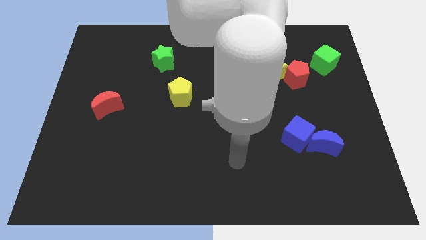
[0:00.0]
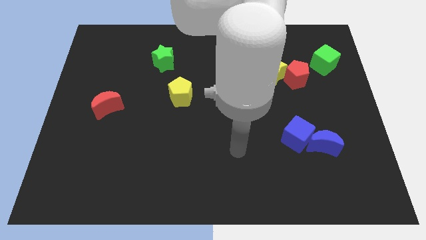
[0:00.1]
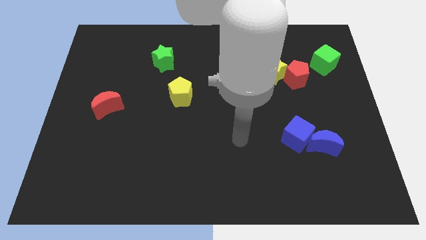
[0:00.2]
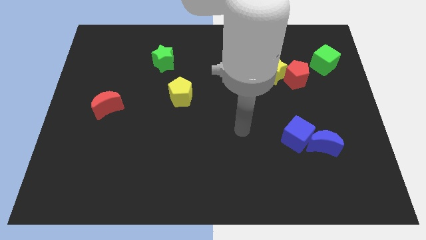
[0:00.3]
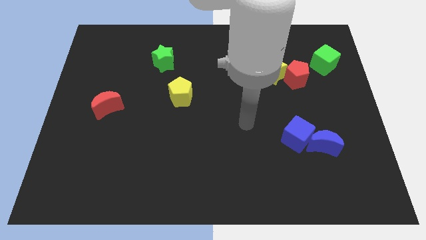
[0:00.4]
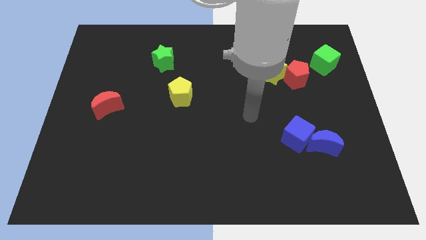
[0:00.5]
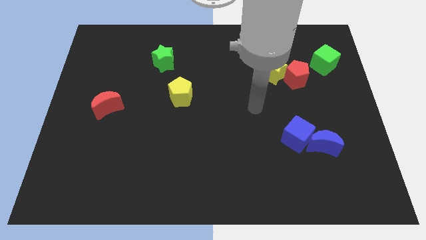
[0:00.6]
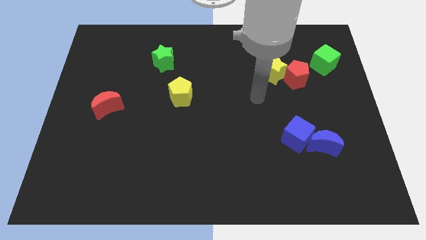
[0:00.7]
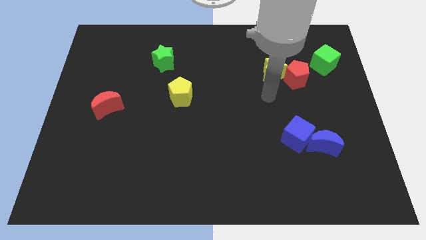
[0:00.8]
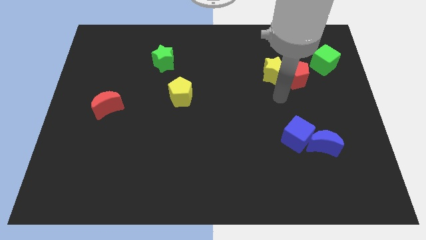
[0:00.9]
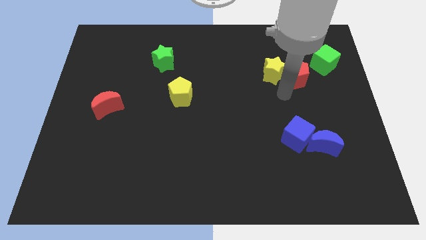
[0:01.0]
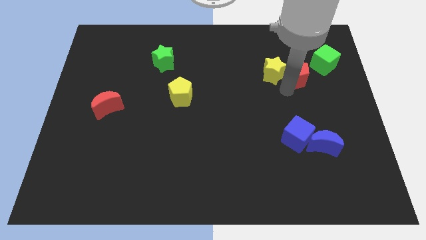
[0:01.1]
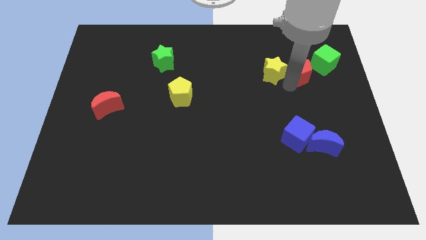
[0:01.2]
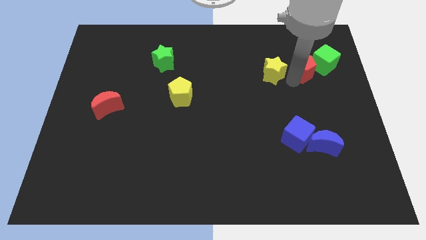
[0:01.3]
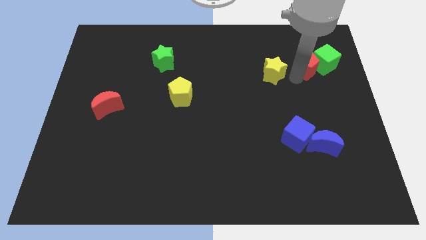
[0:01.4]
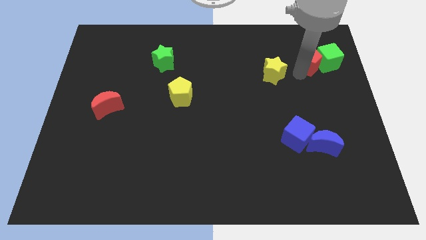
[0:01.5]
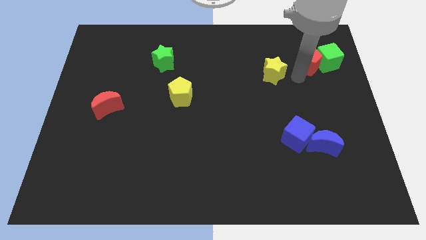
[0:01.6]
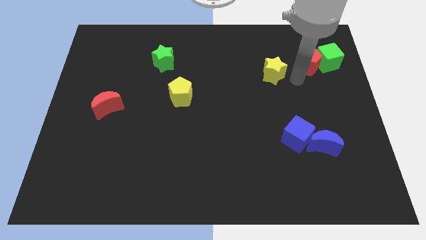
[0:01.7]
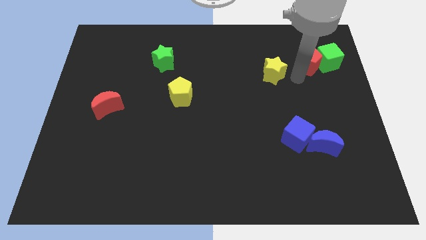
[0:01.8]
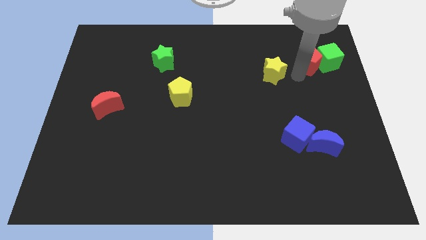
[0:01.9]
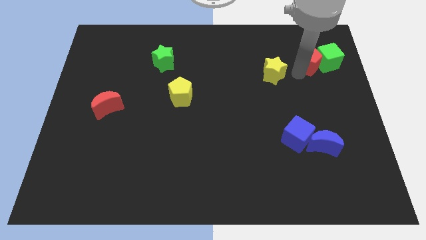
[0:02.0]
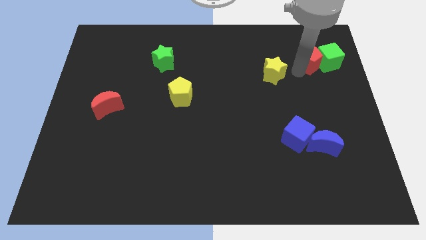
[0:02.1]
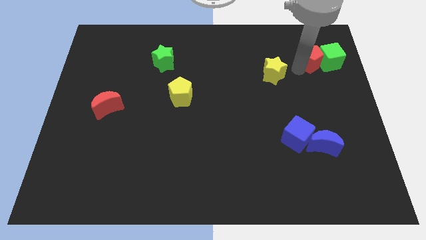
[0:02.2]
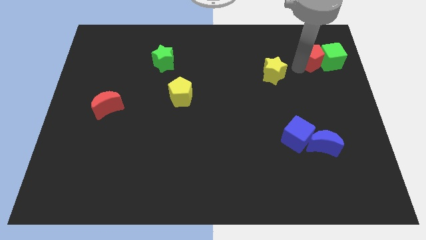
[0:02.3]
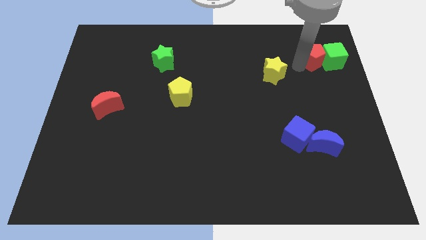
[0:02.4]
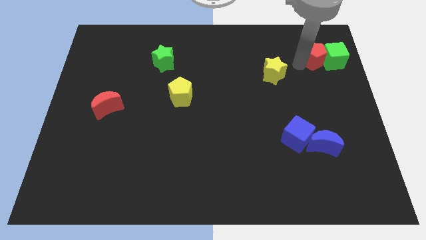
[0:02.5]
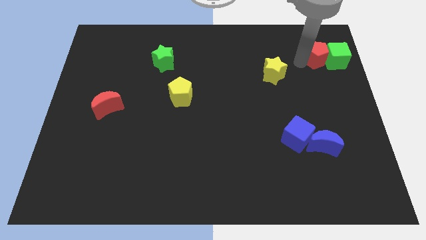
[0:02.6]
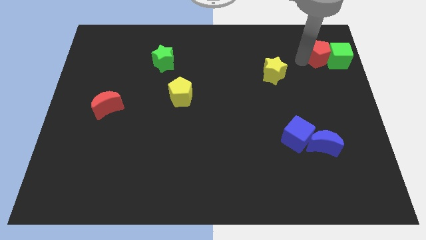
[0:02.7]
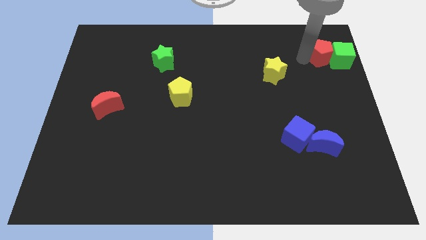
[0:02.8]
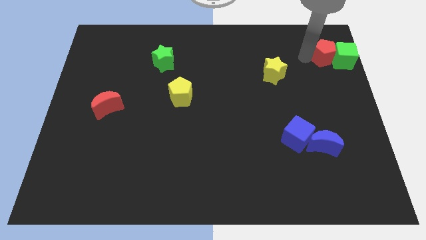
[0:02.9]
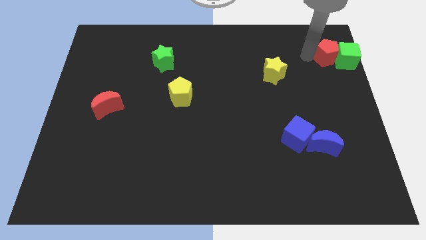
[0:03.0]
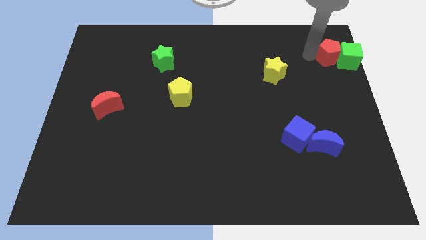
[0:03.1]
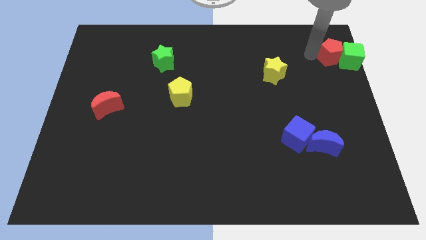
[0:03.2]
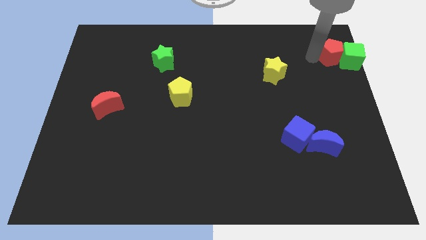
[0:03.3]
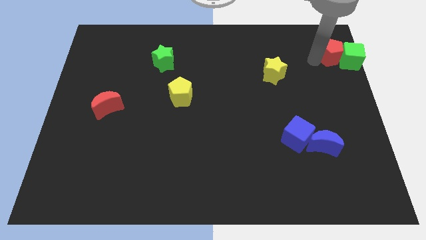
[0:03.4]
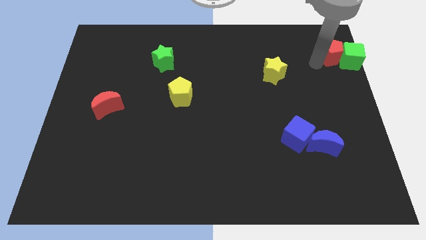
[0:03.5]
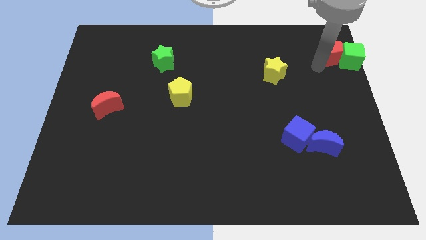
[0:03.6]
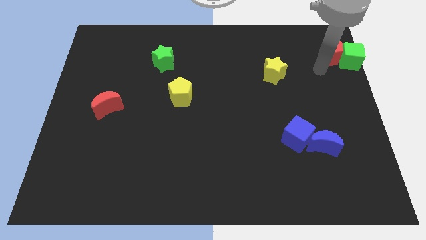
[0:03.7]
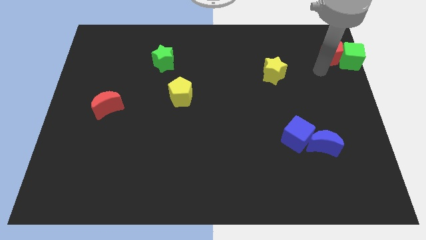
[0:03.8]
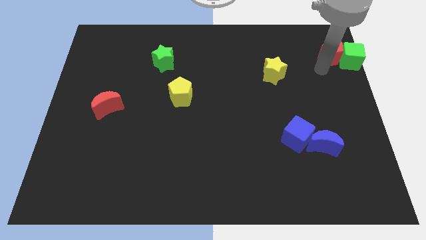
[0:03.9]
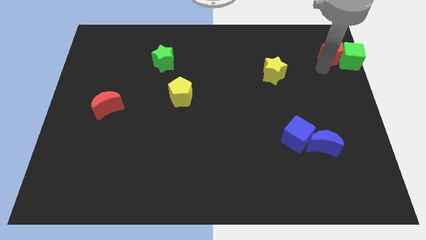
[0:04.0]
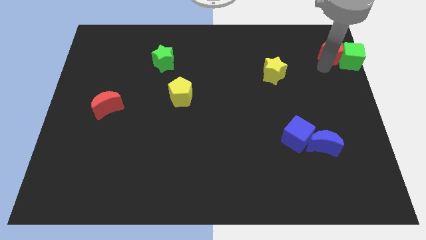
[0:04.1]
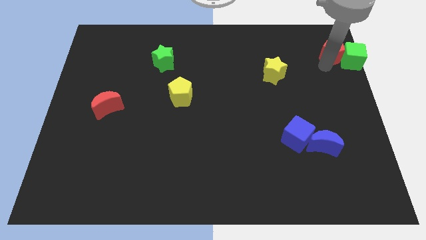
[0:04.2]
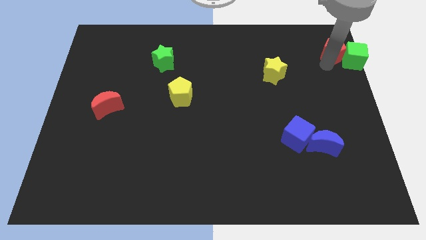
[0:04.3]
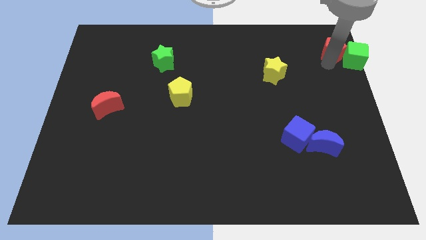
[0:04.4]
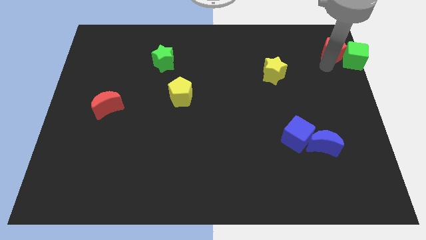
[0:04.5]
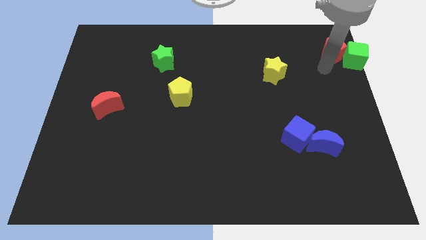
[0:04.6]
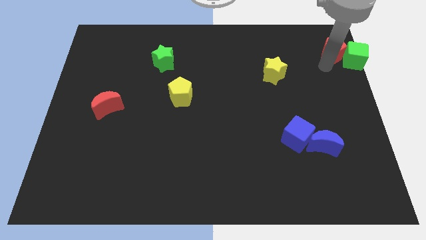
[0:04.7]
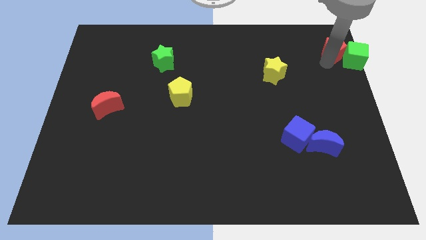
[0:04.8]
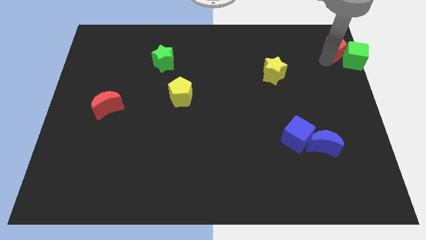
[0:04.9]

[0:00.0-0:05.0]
push the red pentagon to the top right corner

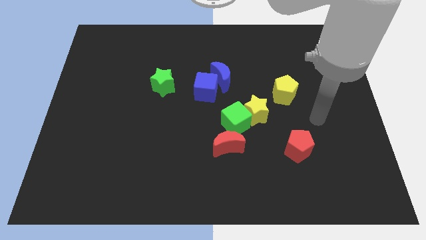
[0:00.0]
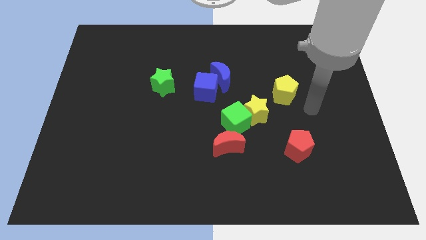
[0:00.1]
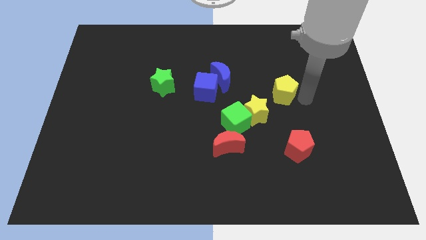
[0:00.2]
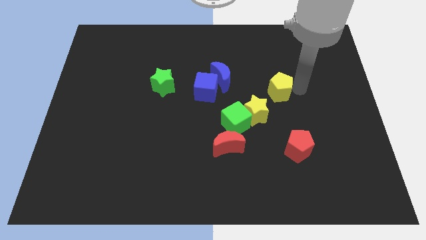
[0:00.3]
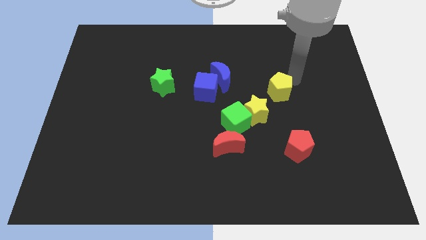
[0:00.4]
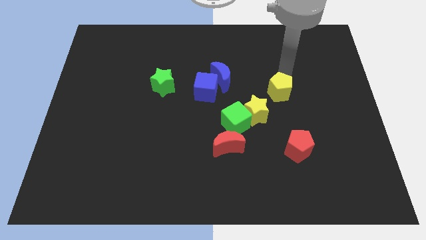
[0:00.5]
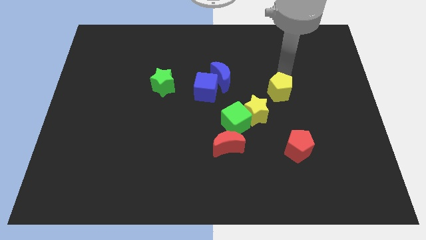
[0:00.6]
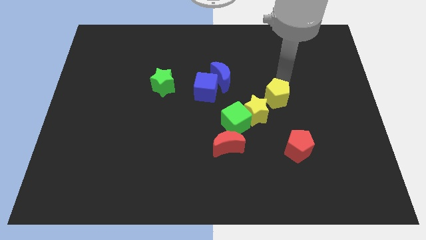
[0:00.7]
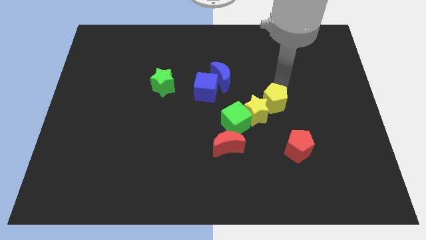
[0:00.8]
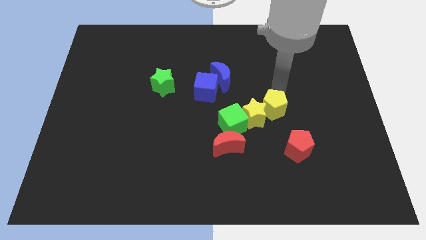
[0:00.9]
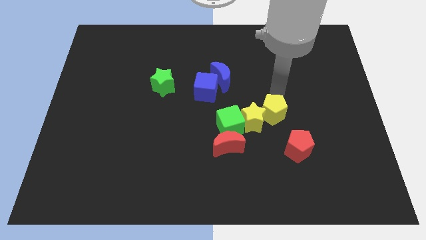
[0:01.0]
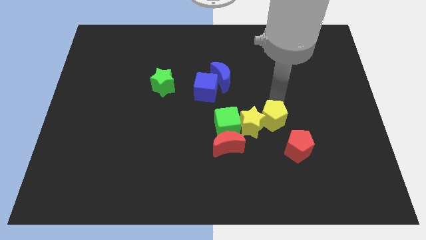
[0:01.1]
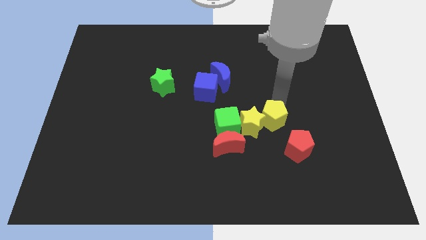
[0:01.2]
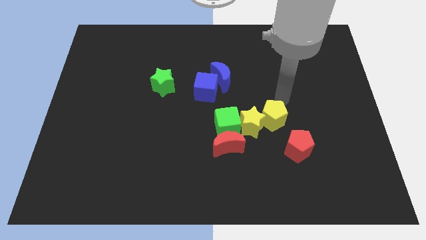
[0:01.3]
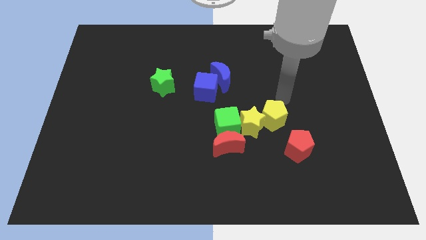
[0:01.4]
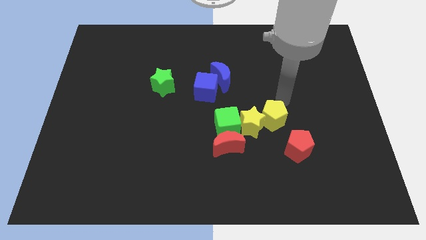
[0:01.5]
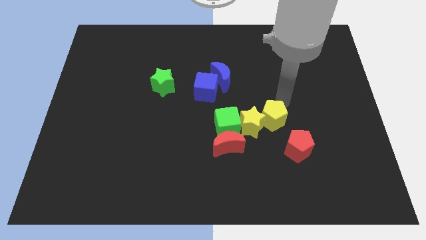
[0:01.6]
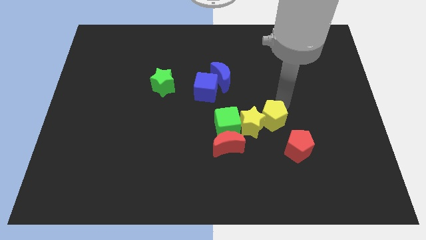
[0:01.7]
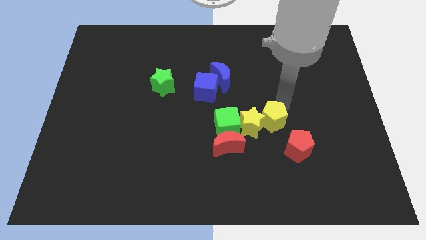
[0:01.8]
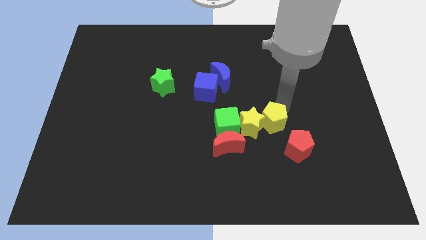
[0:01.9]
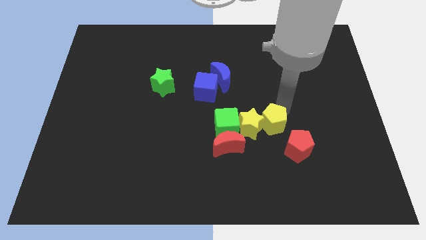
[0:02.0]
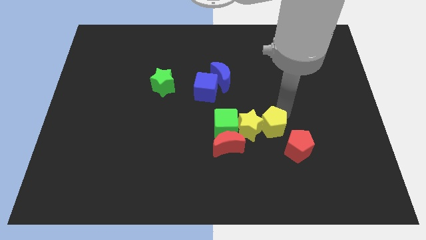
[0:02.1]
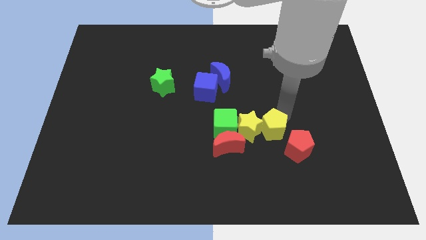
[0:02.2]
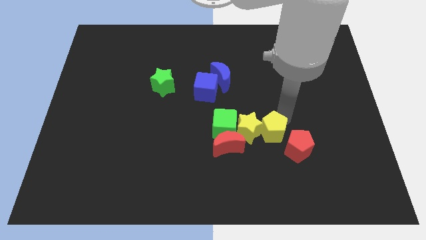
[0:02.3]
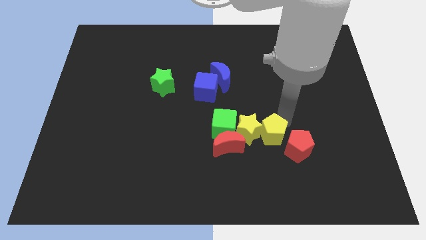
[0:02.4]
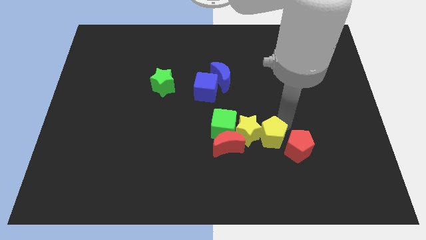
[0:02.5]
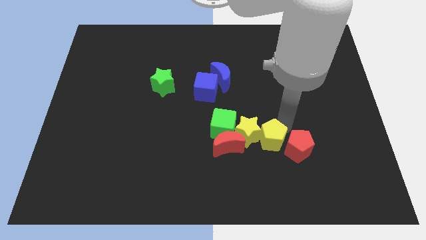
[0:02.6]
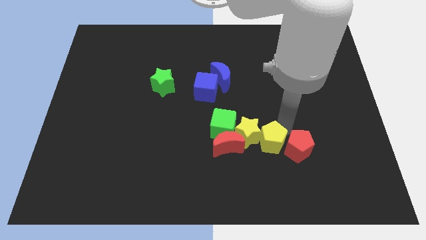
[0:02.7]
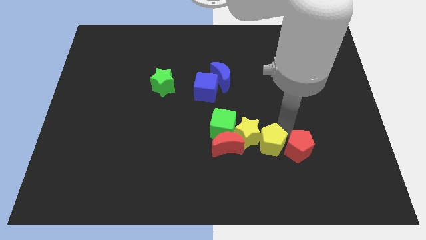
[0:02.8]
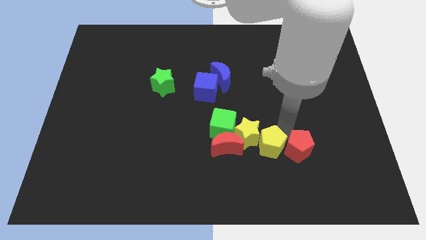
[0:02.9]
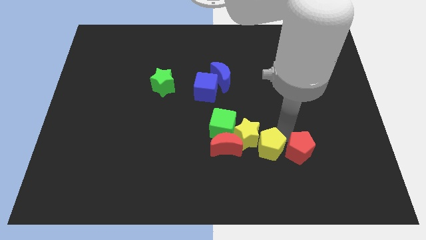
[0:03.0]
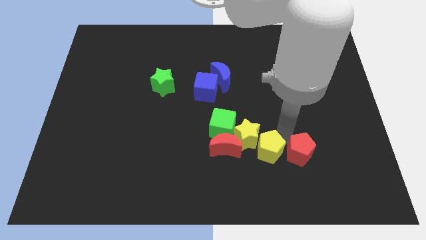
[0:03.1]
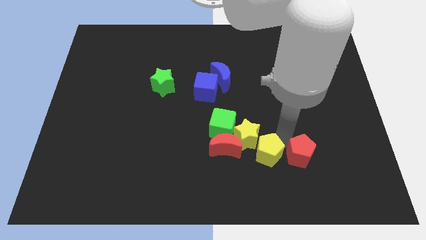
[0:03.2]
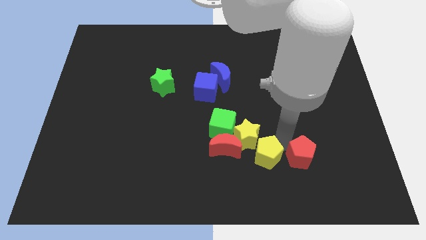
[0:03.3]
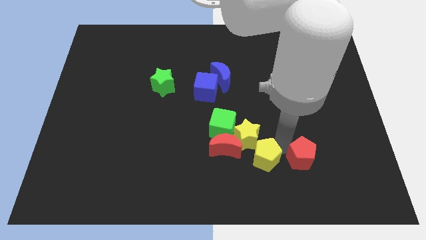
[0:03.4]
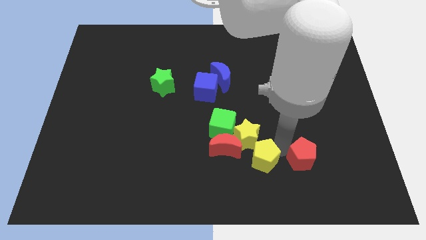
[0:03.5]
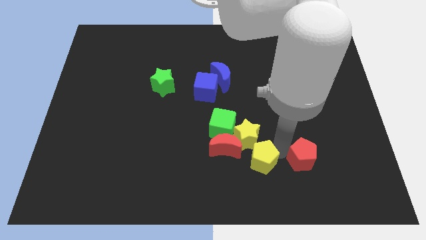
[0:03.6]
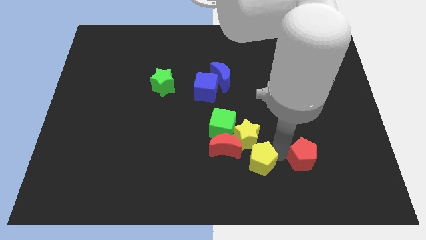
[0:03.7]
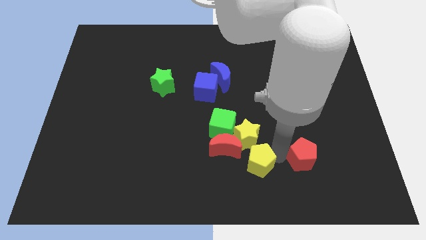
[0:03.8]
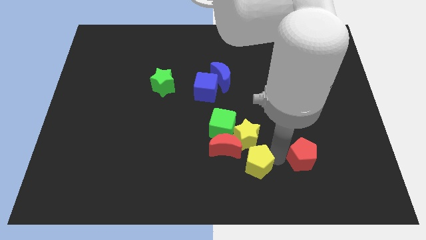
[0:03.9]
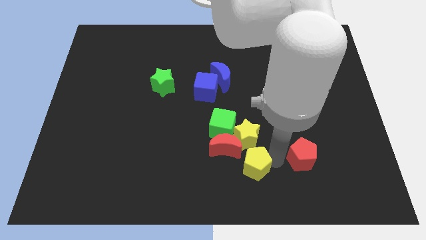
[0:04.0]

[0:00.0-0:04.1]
push the yellow pentagon to the bottom side
